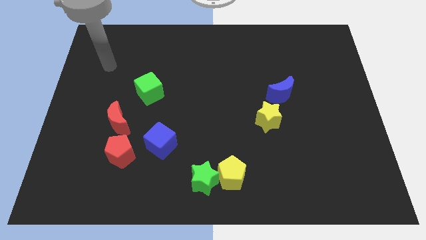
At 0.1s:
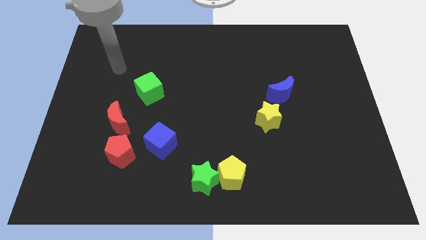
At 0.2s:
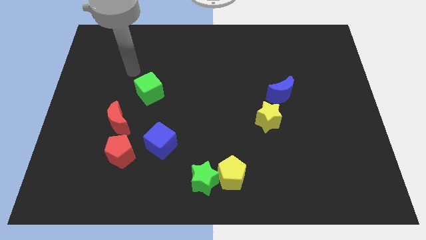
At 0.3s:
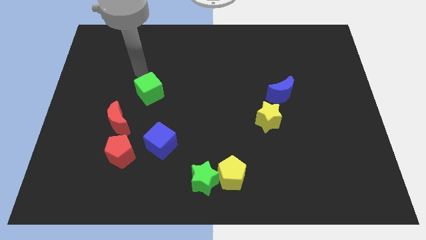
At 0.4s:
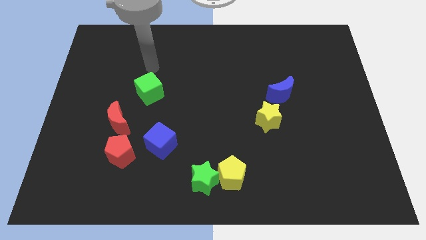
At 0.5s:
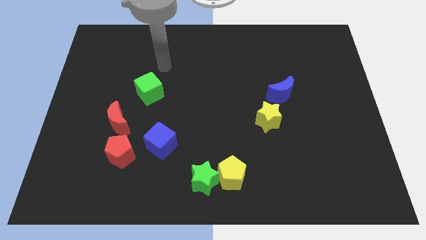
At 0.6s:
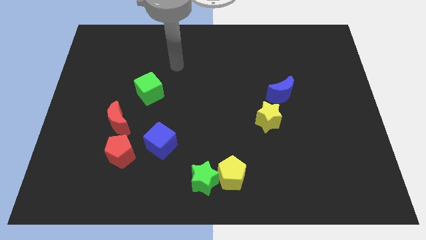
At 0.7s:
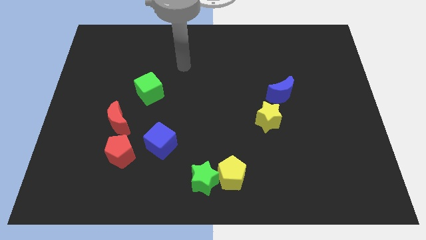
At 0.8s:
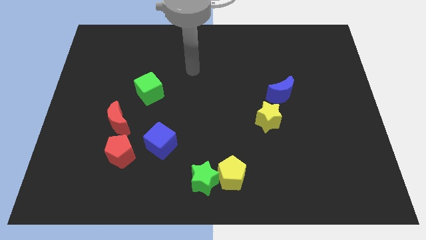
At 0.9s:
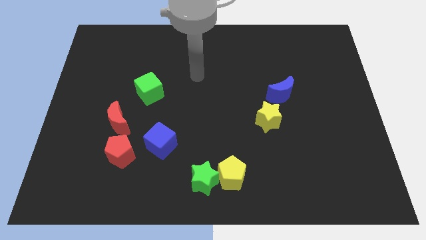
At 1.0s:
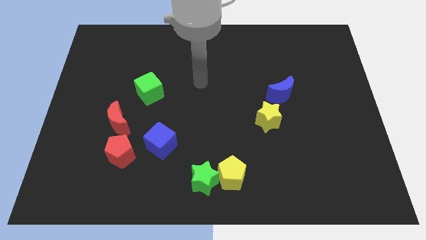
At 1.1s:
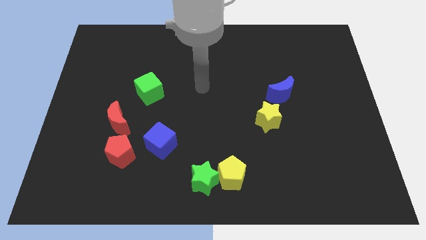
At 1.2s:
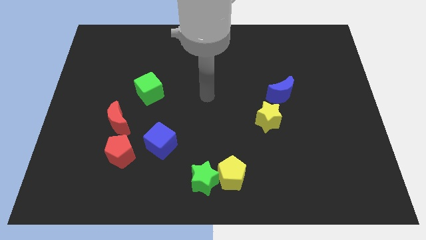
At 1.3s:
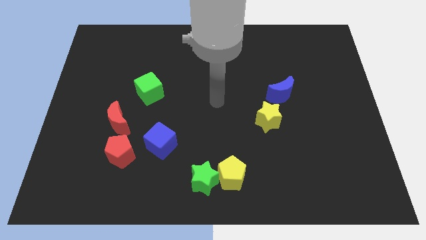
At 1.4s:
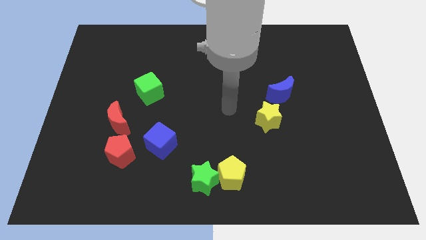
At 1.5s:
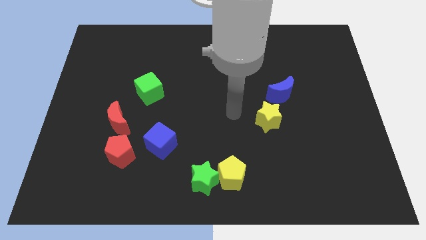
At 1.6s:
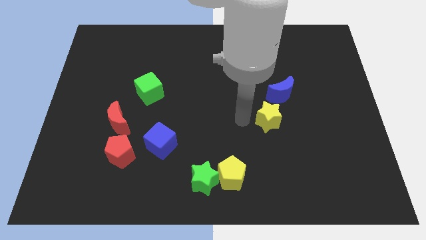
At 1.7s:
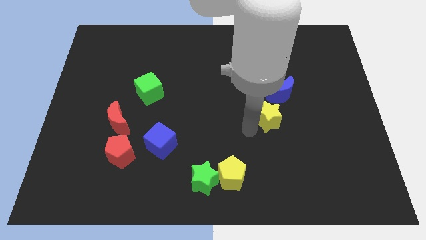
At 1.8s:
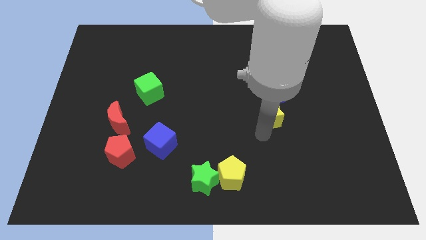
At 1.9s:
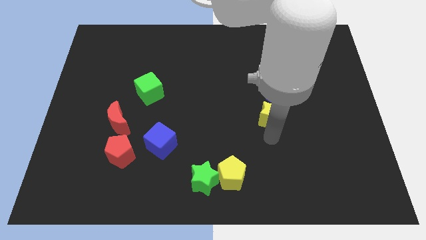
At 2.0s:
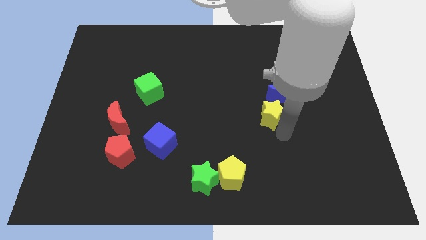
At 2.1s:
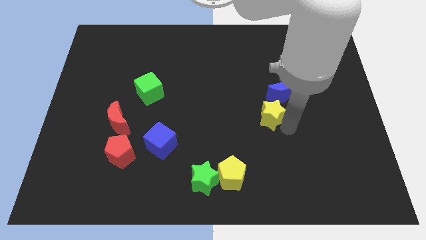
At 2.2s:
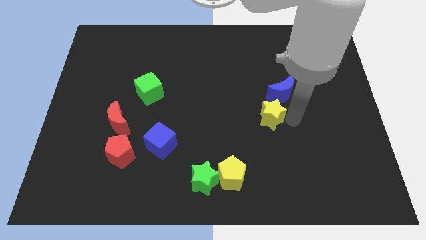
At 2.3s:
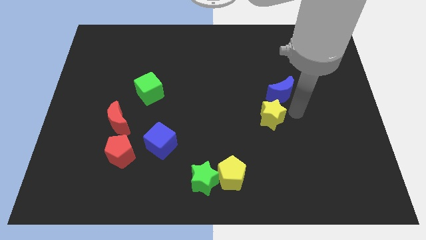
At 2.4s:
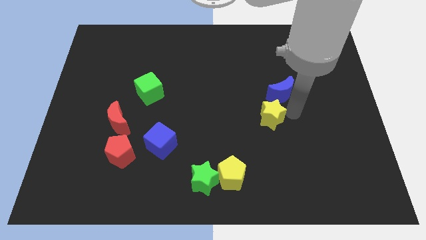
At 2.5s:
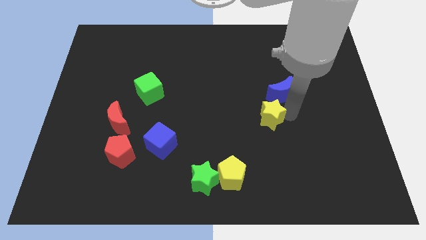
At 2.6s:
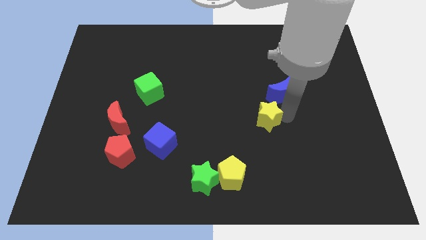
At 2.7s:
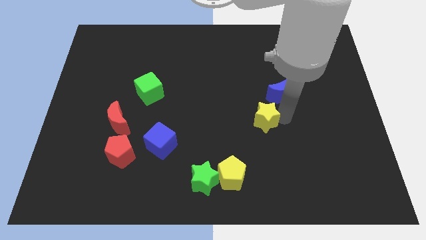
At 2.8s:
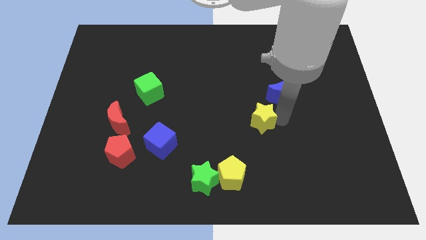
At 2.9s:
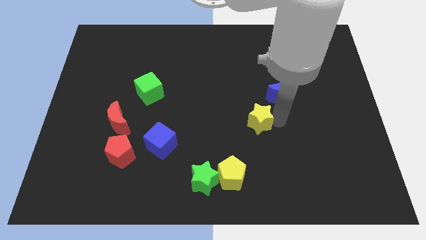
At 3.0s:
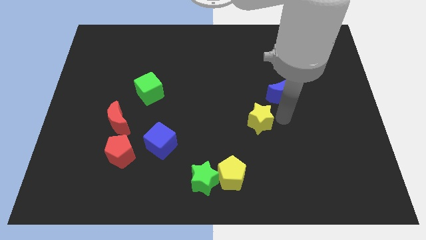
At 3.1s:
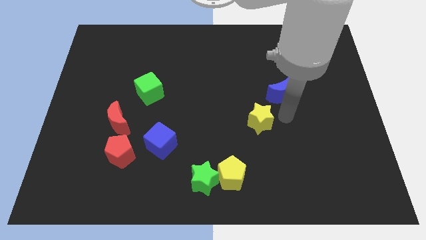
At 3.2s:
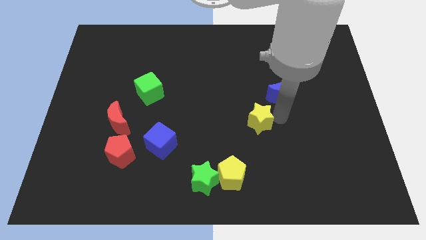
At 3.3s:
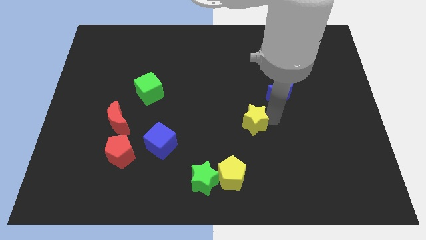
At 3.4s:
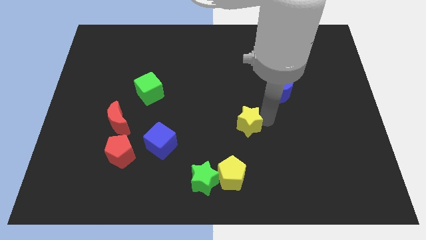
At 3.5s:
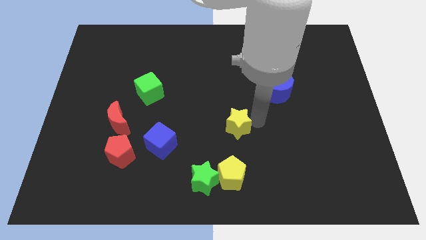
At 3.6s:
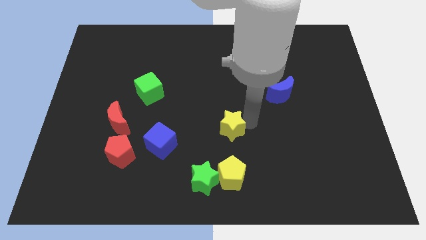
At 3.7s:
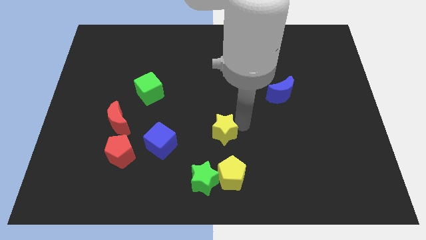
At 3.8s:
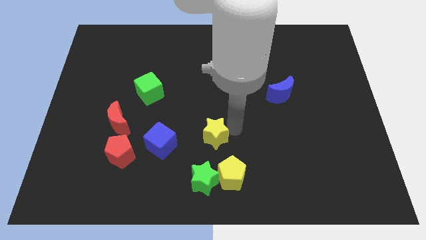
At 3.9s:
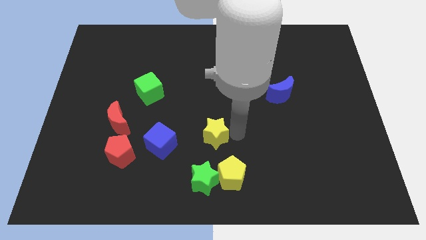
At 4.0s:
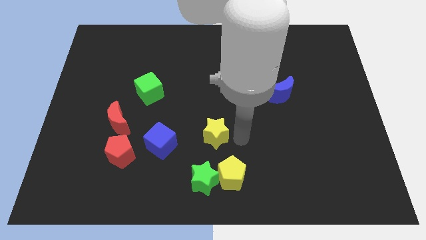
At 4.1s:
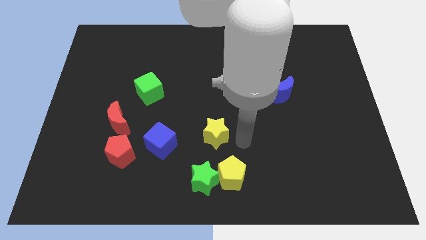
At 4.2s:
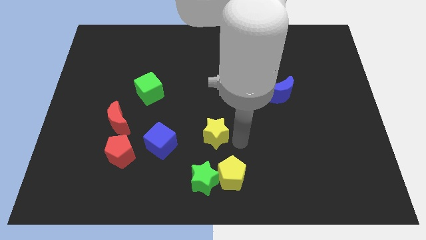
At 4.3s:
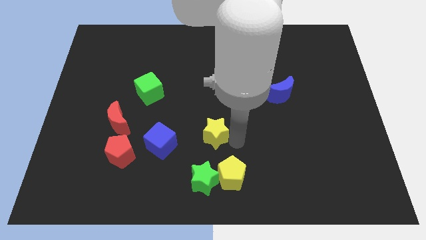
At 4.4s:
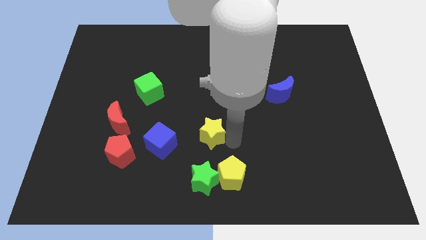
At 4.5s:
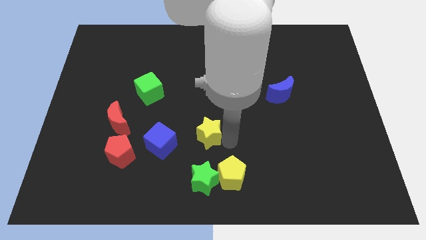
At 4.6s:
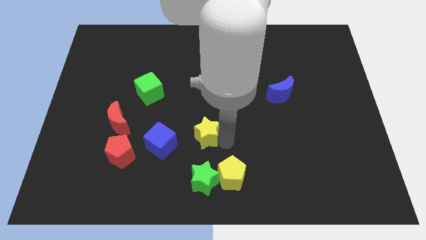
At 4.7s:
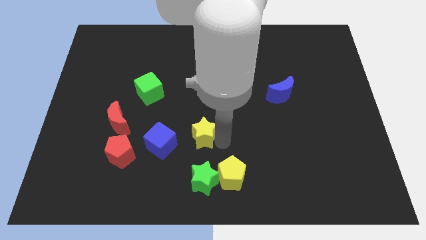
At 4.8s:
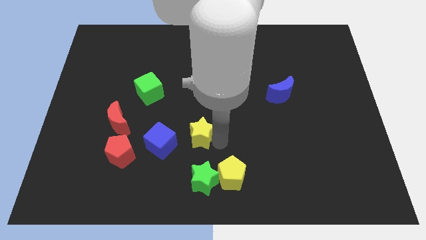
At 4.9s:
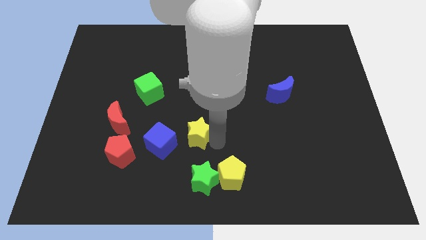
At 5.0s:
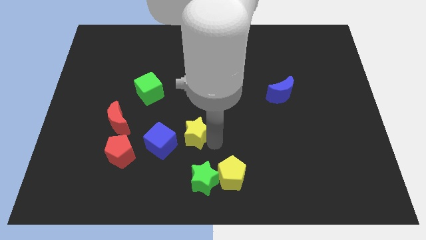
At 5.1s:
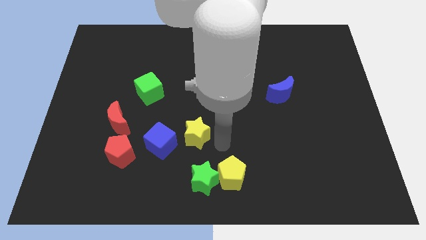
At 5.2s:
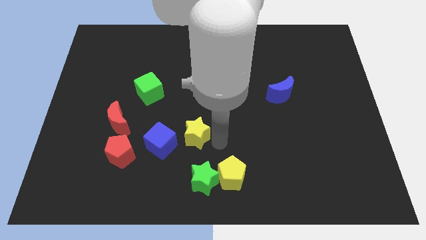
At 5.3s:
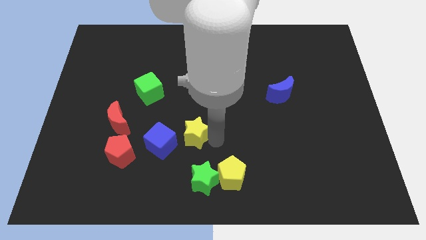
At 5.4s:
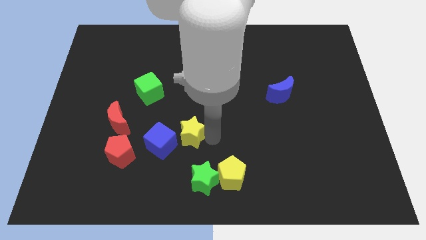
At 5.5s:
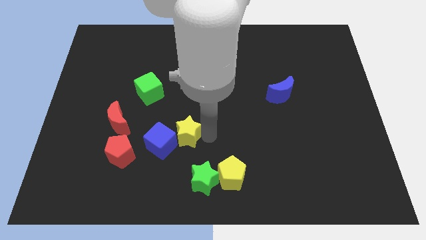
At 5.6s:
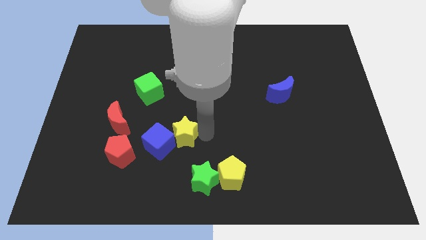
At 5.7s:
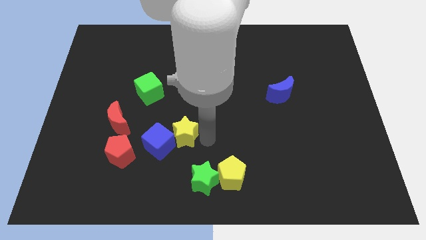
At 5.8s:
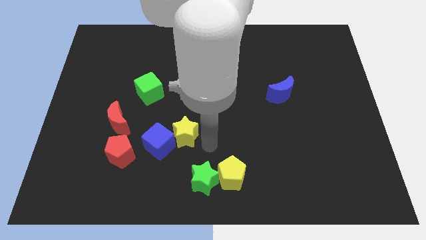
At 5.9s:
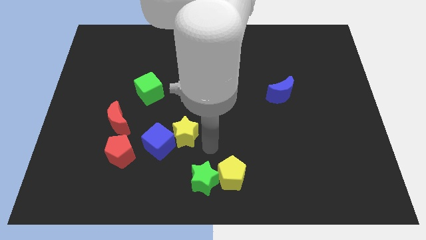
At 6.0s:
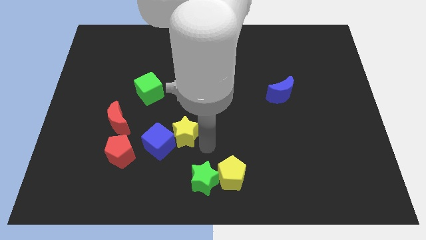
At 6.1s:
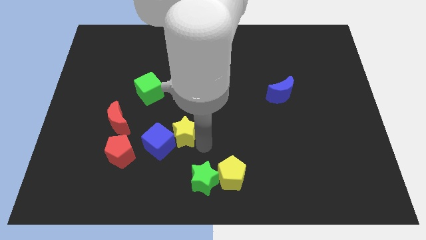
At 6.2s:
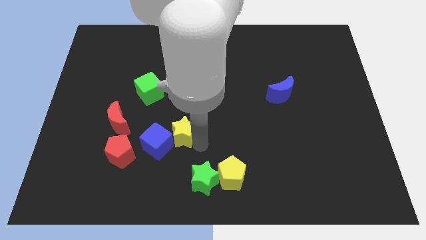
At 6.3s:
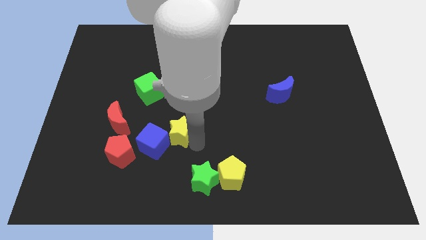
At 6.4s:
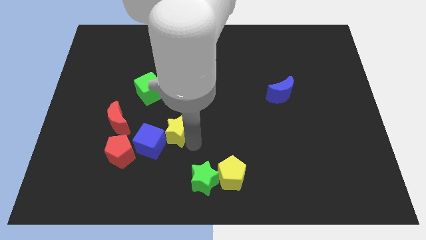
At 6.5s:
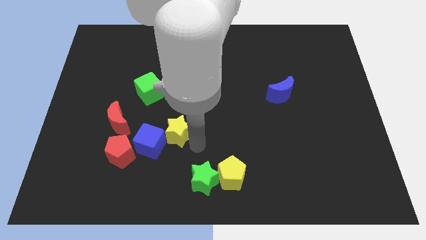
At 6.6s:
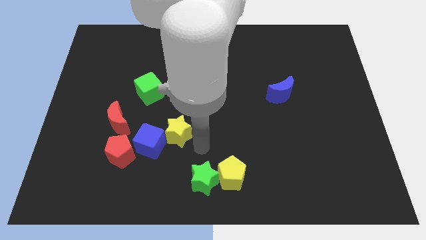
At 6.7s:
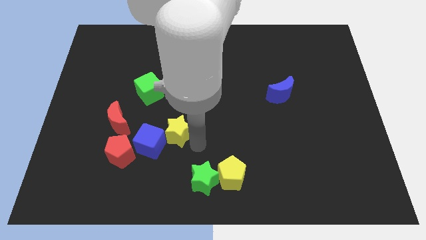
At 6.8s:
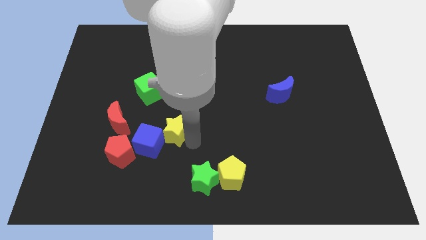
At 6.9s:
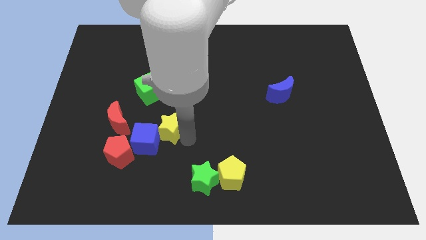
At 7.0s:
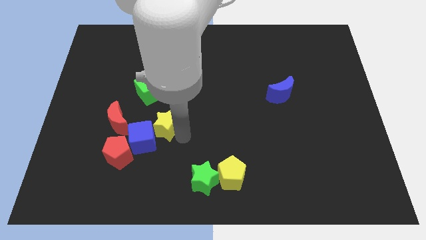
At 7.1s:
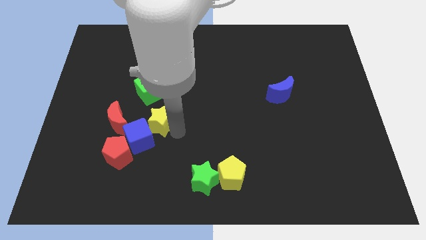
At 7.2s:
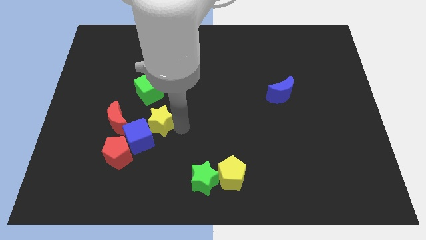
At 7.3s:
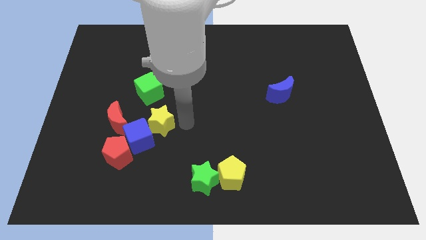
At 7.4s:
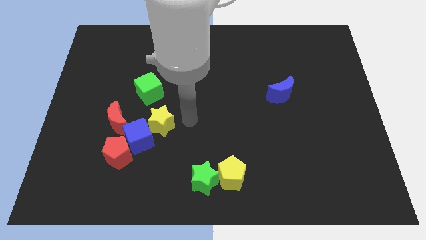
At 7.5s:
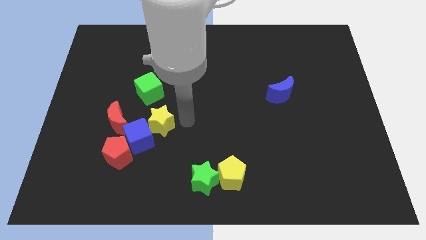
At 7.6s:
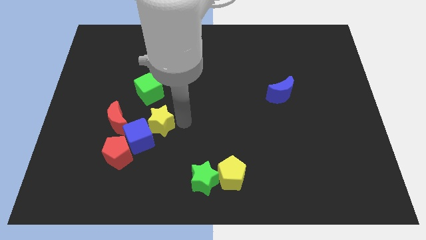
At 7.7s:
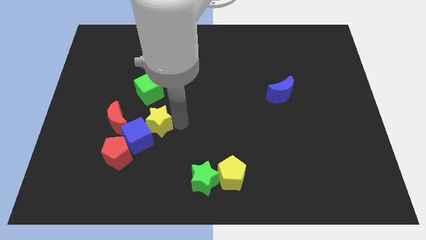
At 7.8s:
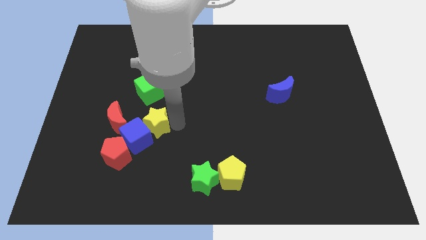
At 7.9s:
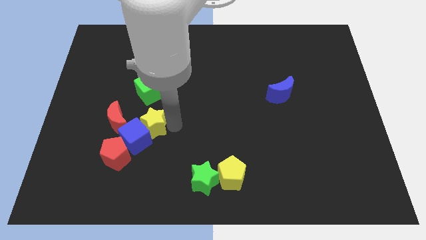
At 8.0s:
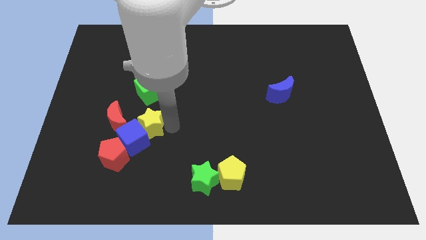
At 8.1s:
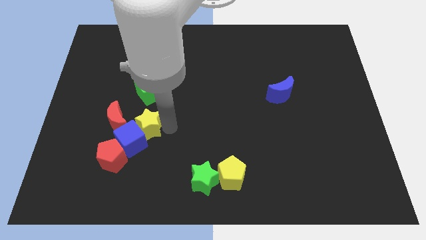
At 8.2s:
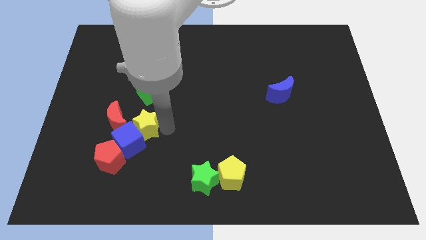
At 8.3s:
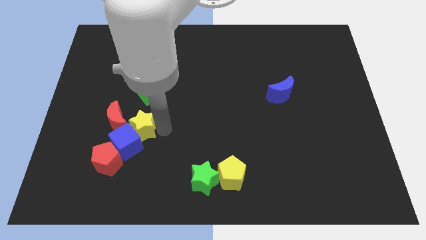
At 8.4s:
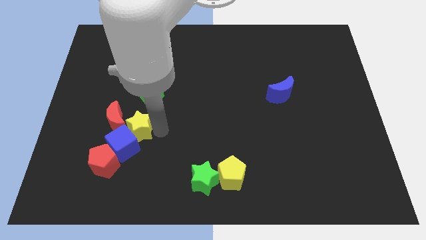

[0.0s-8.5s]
put the yellow star to the red moon
